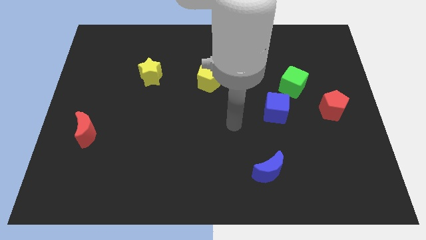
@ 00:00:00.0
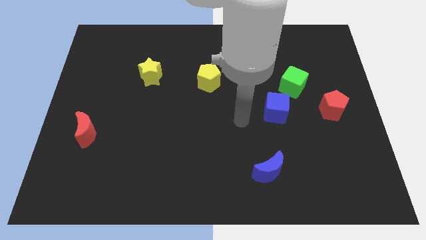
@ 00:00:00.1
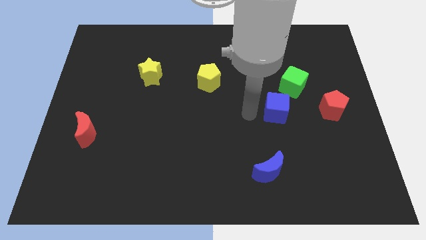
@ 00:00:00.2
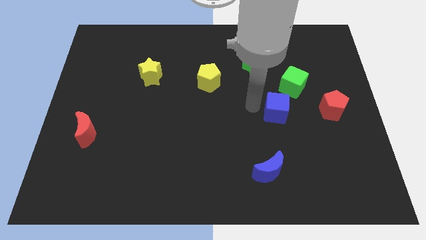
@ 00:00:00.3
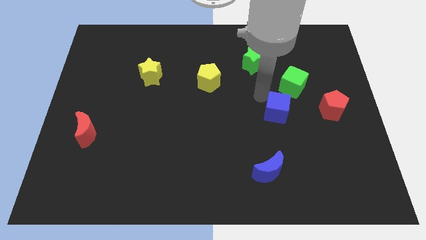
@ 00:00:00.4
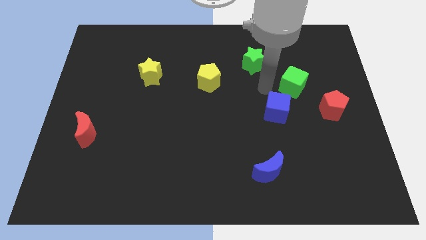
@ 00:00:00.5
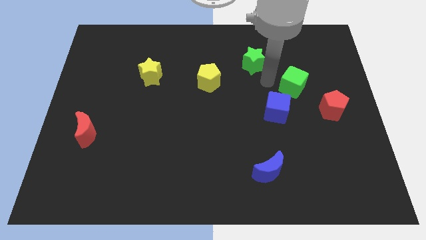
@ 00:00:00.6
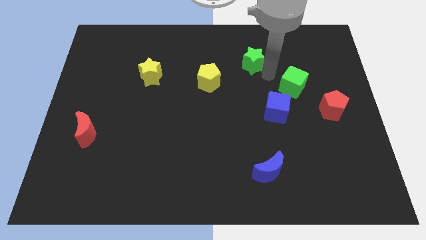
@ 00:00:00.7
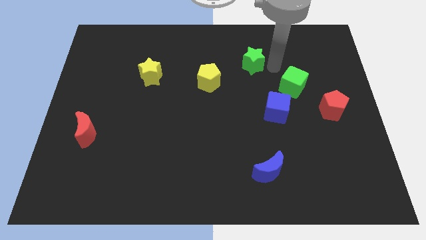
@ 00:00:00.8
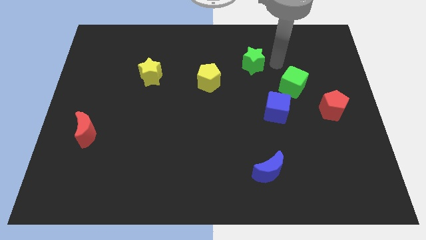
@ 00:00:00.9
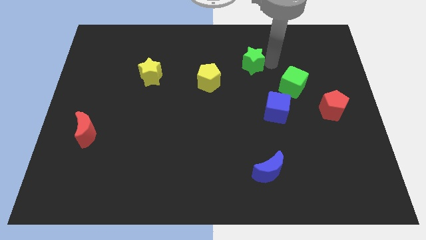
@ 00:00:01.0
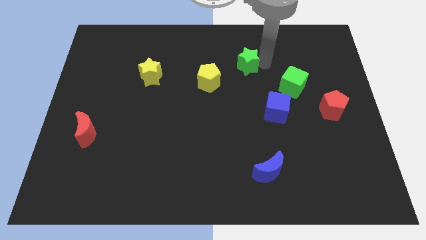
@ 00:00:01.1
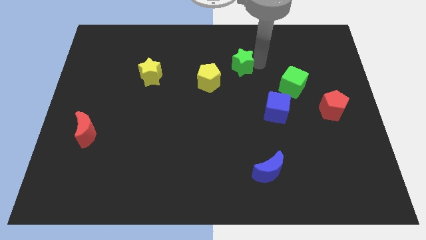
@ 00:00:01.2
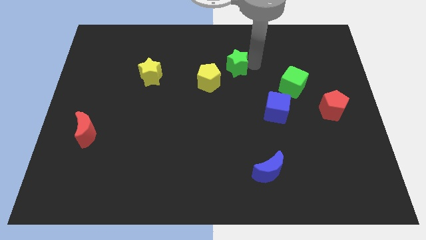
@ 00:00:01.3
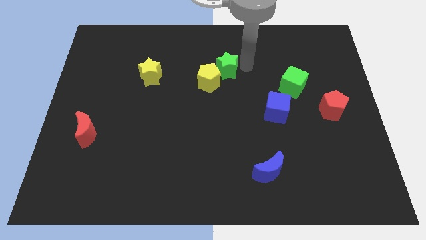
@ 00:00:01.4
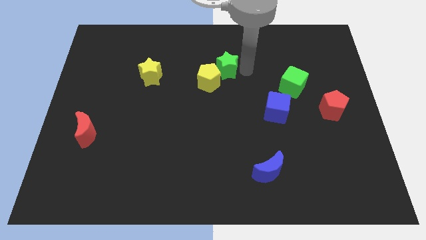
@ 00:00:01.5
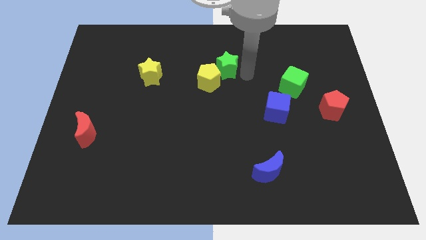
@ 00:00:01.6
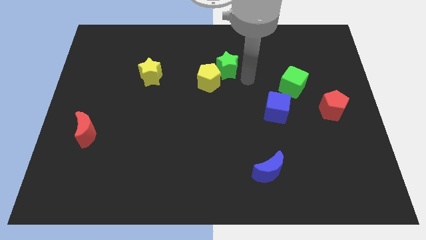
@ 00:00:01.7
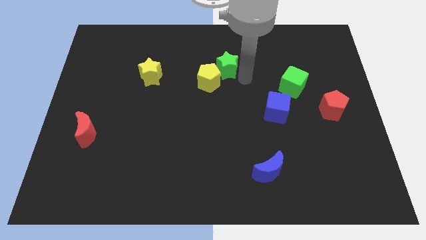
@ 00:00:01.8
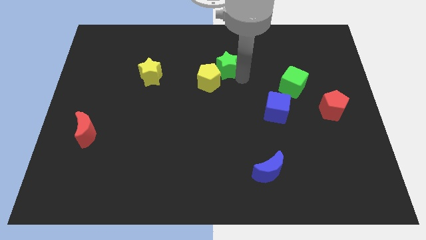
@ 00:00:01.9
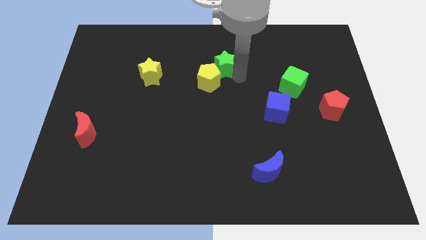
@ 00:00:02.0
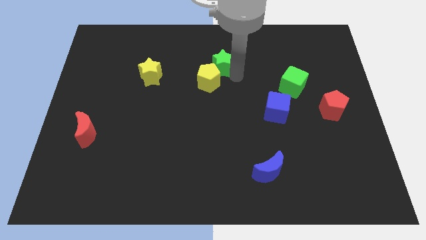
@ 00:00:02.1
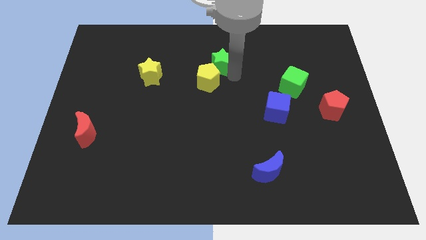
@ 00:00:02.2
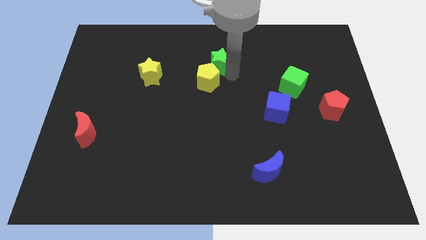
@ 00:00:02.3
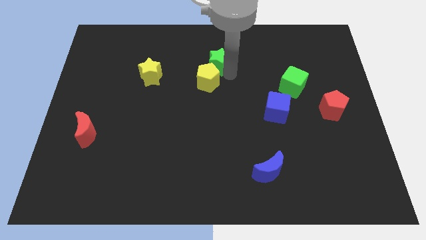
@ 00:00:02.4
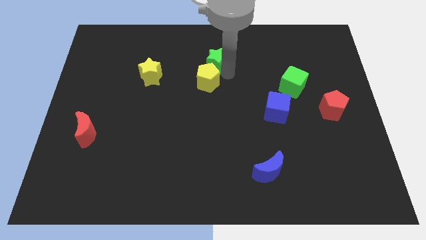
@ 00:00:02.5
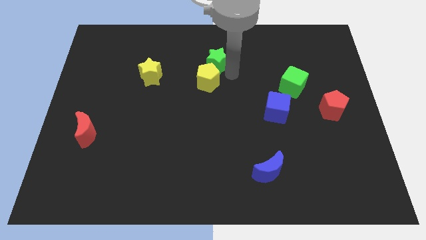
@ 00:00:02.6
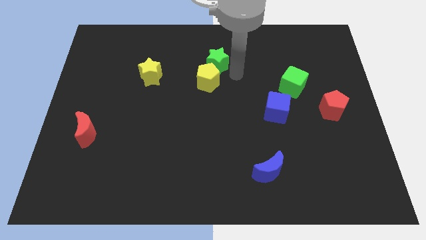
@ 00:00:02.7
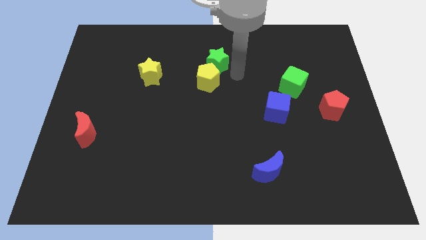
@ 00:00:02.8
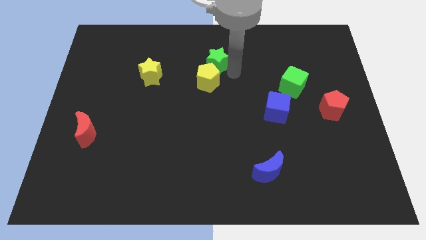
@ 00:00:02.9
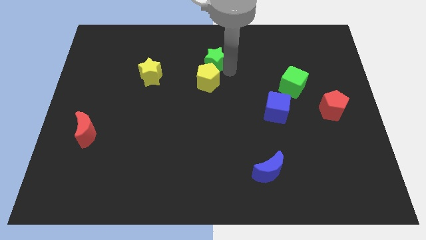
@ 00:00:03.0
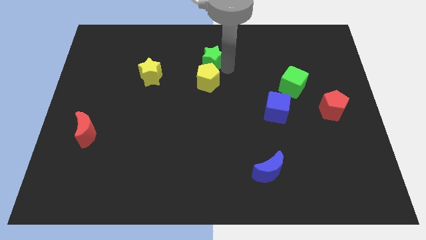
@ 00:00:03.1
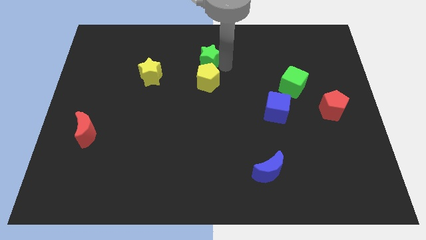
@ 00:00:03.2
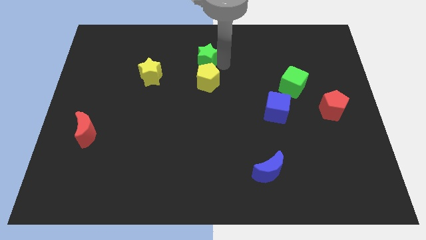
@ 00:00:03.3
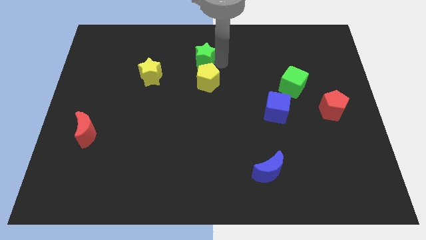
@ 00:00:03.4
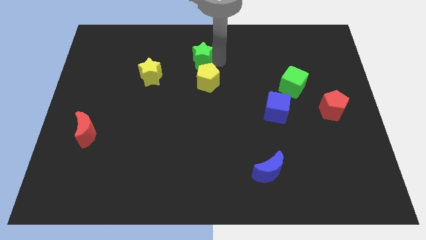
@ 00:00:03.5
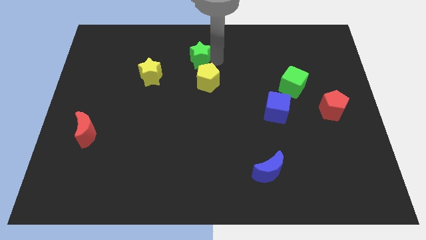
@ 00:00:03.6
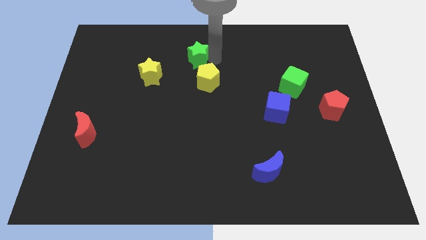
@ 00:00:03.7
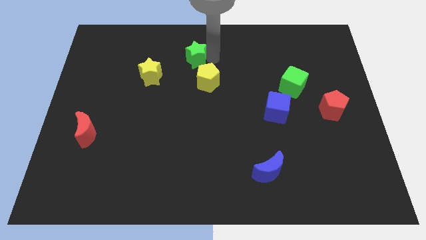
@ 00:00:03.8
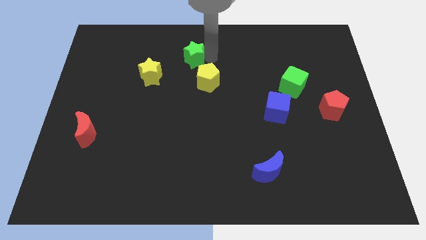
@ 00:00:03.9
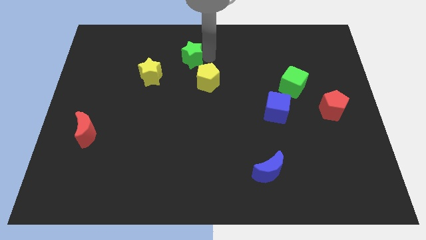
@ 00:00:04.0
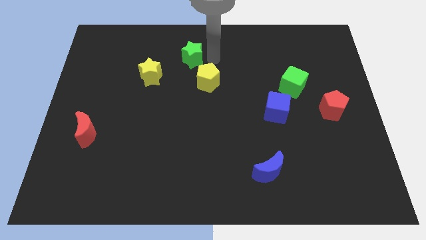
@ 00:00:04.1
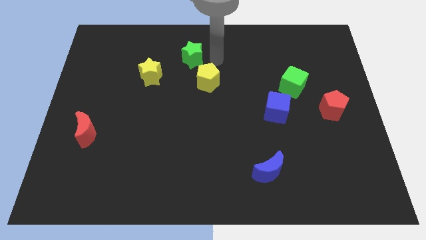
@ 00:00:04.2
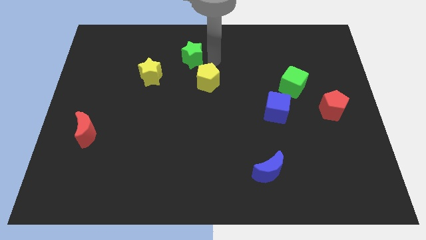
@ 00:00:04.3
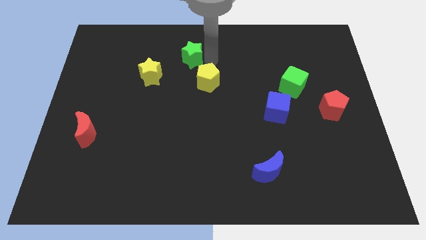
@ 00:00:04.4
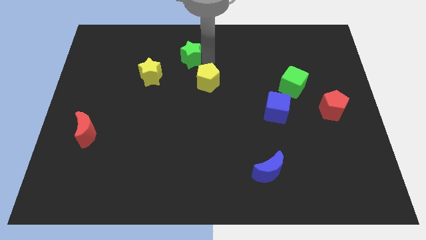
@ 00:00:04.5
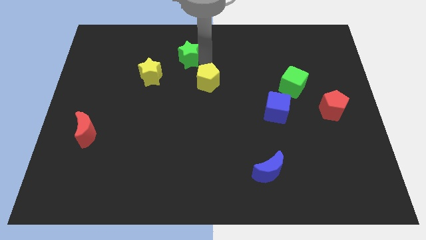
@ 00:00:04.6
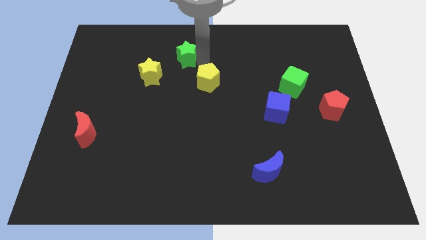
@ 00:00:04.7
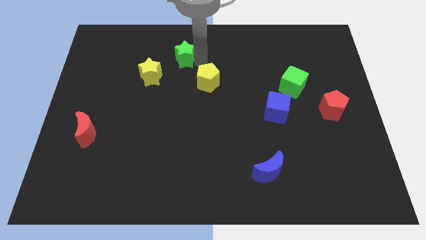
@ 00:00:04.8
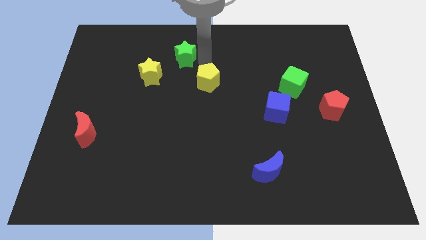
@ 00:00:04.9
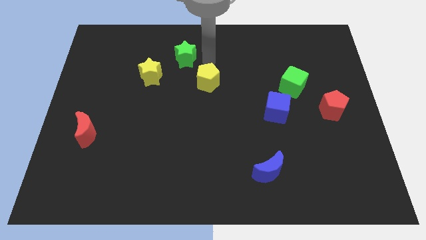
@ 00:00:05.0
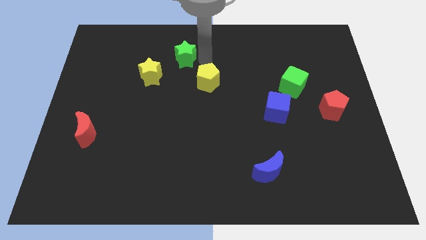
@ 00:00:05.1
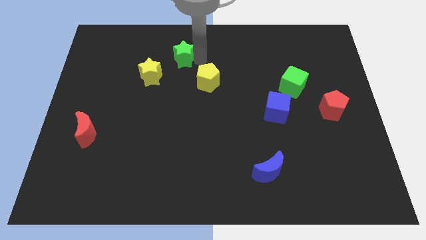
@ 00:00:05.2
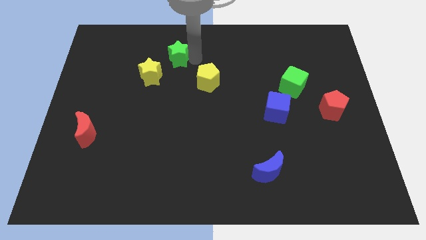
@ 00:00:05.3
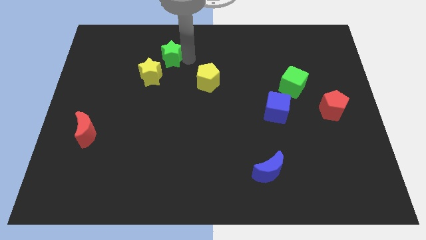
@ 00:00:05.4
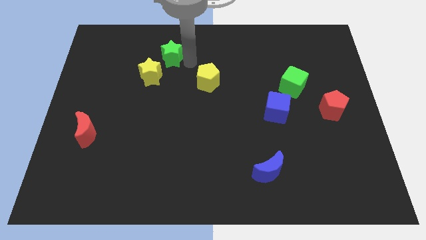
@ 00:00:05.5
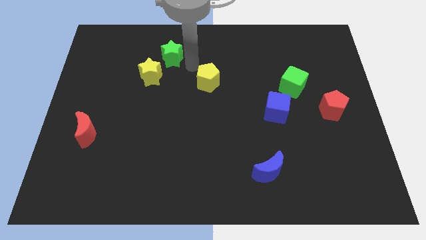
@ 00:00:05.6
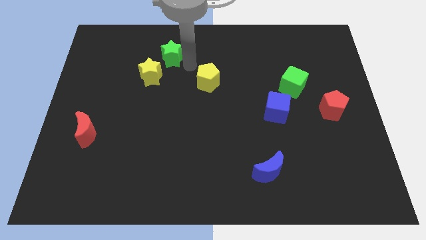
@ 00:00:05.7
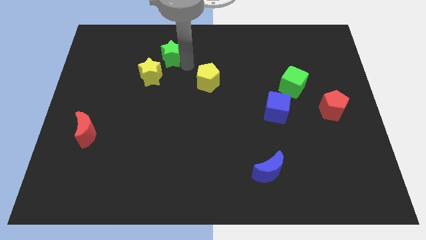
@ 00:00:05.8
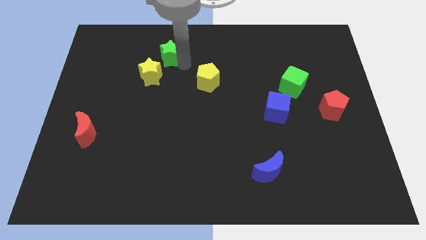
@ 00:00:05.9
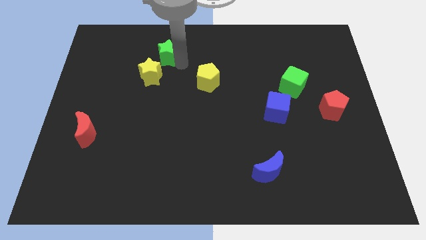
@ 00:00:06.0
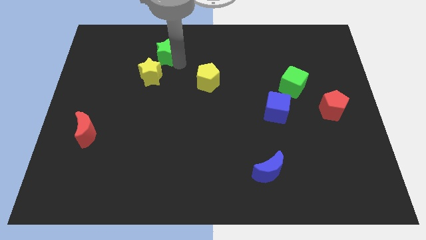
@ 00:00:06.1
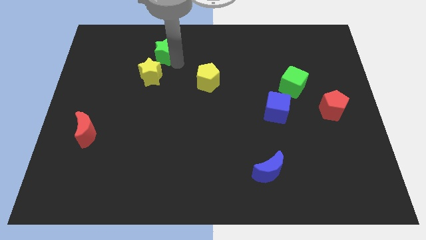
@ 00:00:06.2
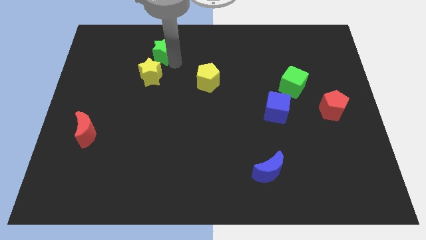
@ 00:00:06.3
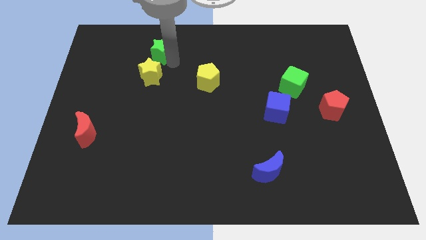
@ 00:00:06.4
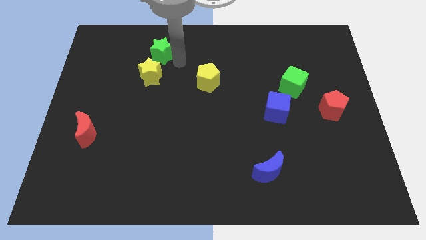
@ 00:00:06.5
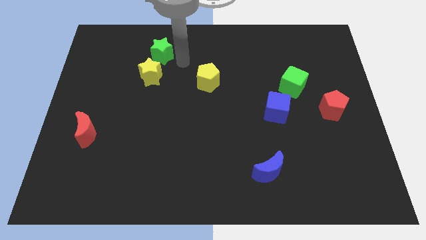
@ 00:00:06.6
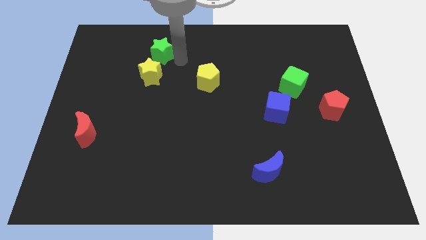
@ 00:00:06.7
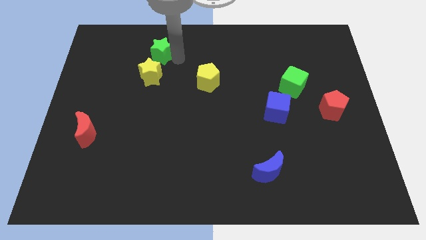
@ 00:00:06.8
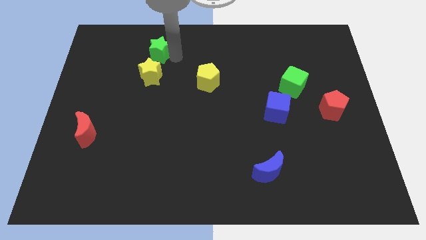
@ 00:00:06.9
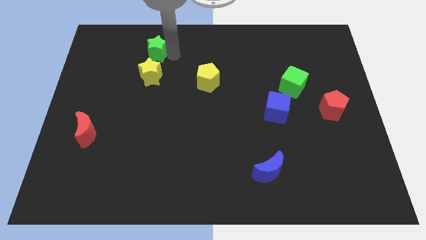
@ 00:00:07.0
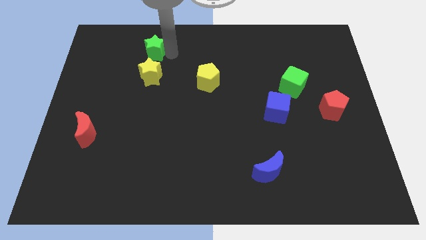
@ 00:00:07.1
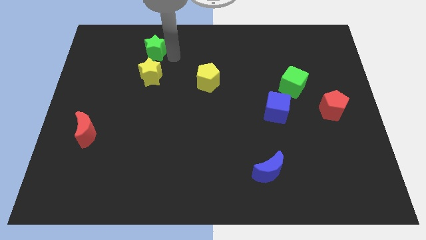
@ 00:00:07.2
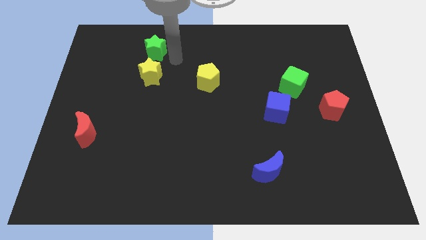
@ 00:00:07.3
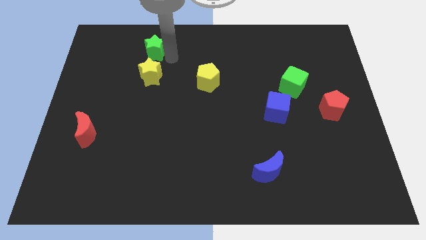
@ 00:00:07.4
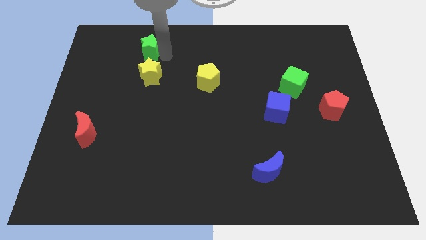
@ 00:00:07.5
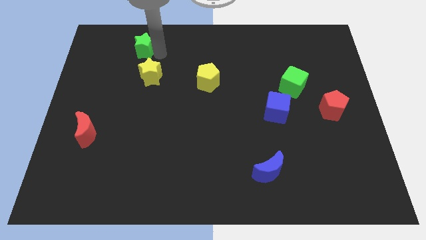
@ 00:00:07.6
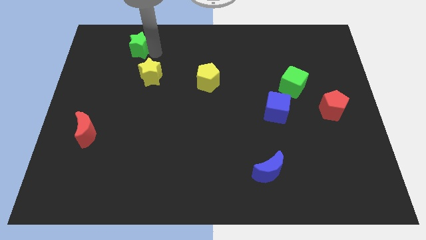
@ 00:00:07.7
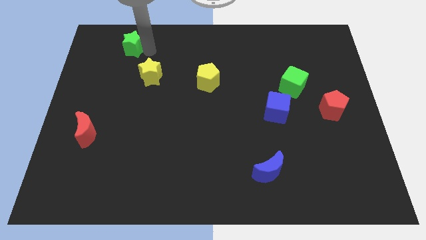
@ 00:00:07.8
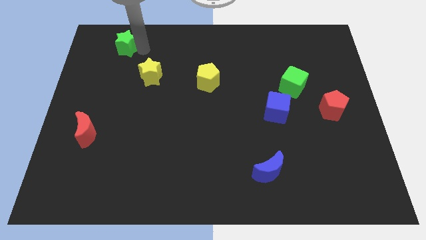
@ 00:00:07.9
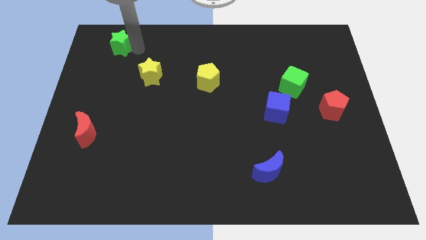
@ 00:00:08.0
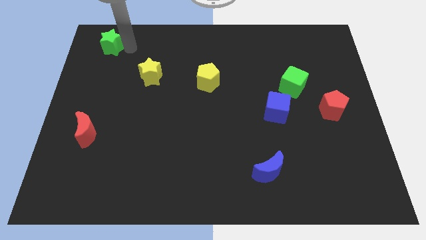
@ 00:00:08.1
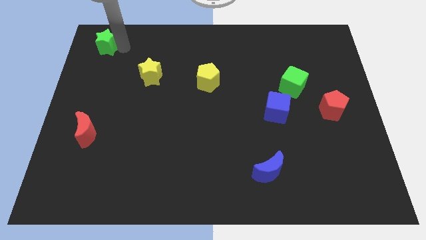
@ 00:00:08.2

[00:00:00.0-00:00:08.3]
push the green star to the top left
